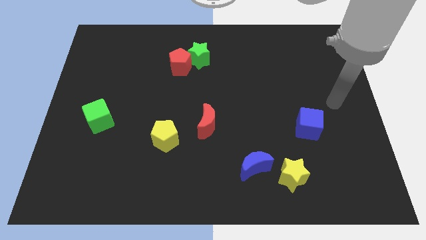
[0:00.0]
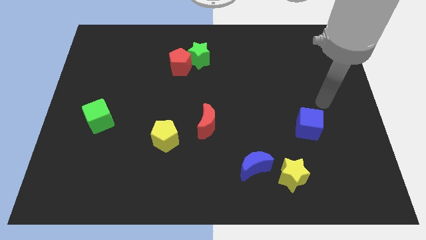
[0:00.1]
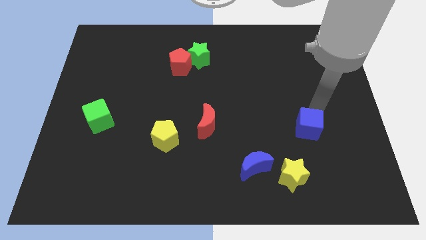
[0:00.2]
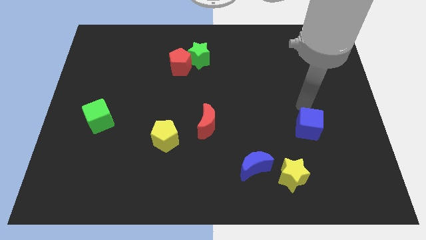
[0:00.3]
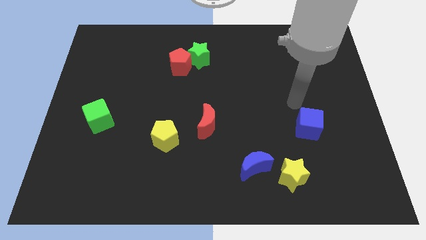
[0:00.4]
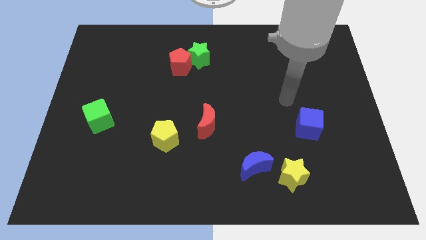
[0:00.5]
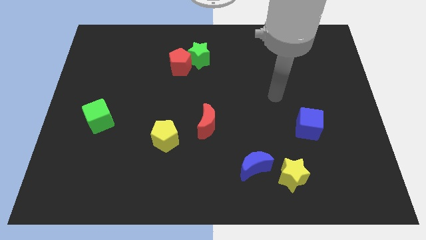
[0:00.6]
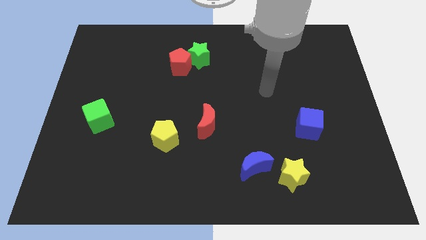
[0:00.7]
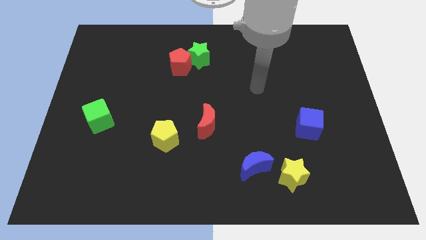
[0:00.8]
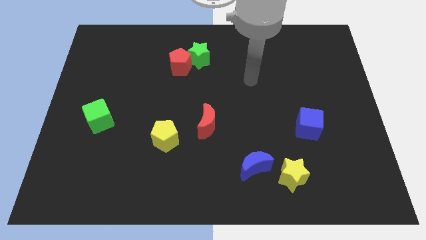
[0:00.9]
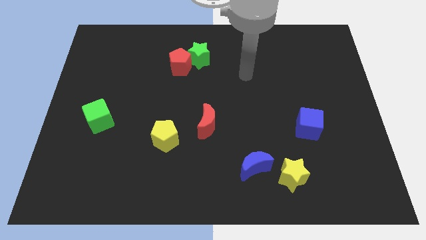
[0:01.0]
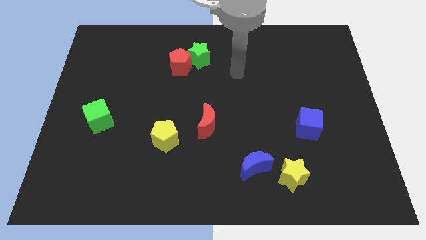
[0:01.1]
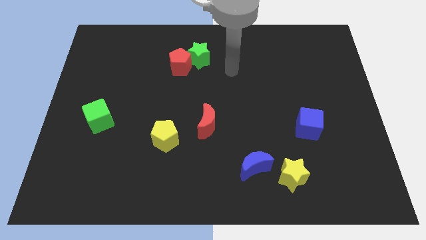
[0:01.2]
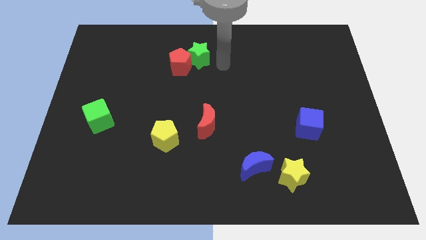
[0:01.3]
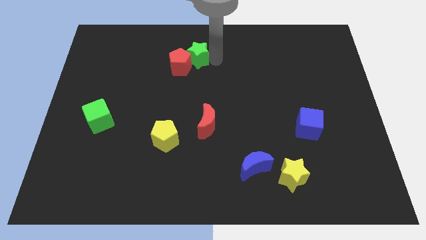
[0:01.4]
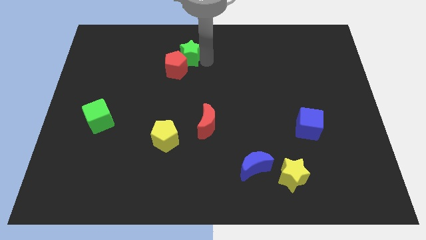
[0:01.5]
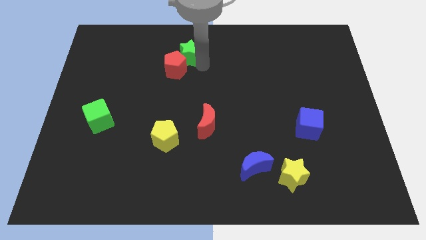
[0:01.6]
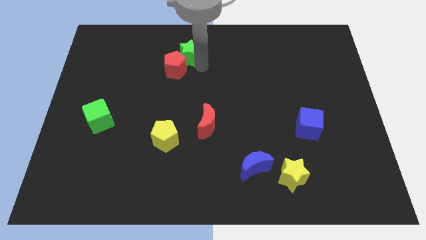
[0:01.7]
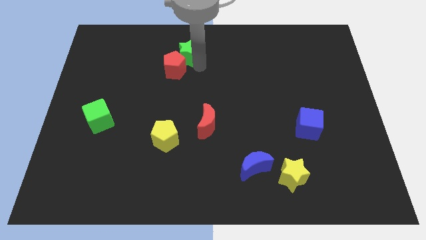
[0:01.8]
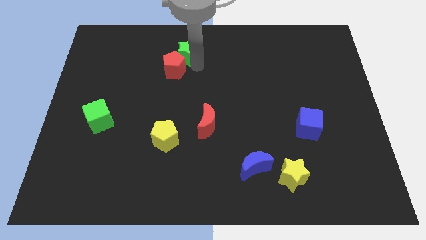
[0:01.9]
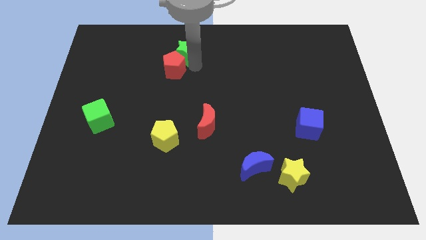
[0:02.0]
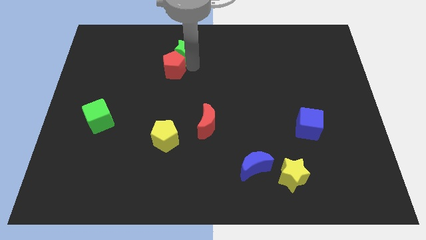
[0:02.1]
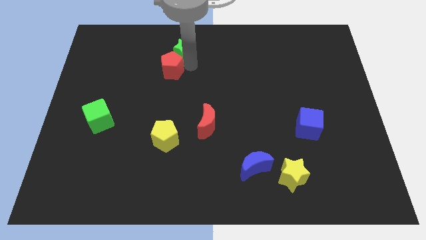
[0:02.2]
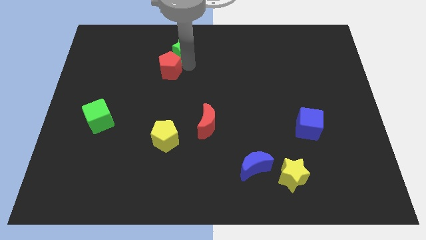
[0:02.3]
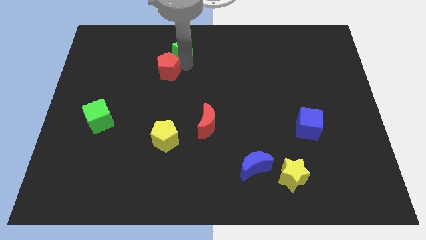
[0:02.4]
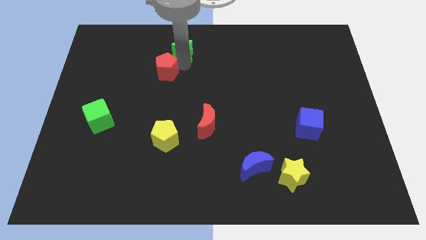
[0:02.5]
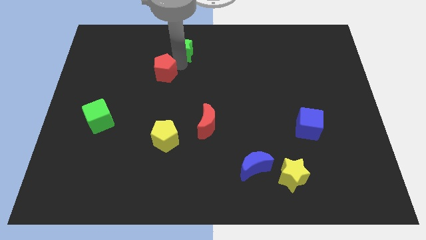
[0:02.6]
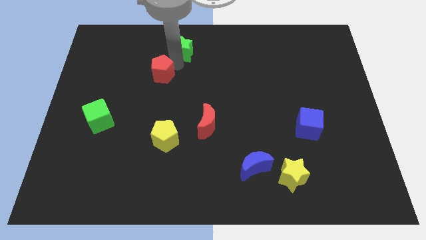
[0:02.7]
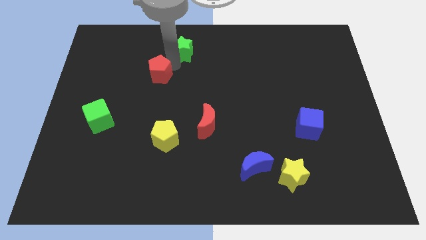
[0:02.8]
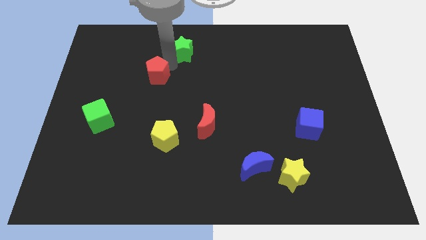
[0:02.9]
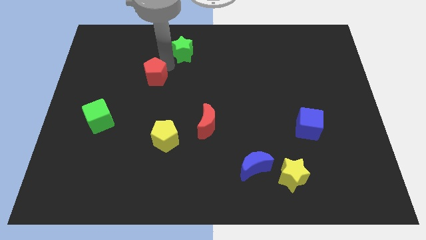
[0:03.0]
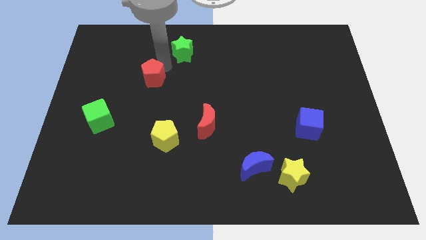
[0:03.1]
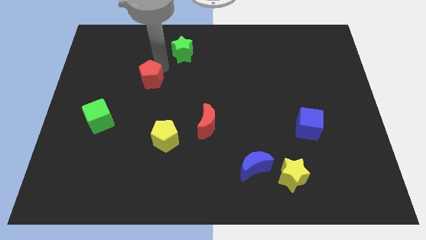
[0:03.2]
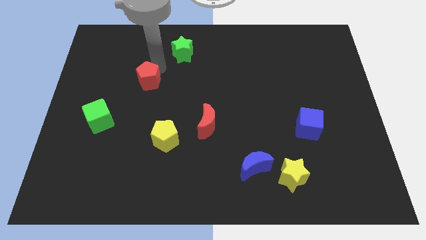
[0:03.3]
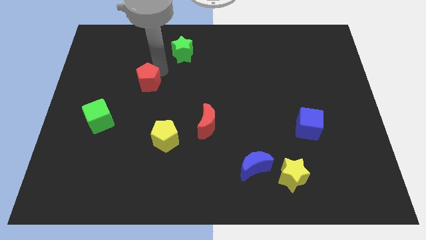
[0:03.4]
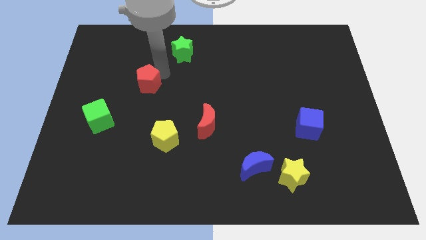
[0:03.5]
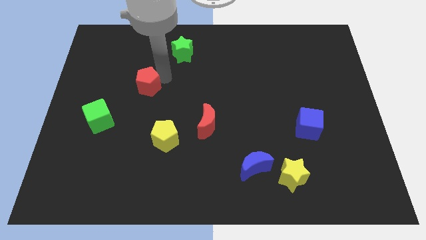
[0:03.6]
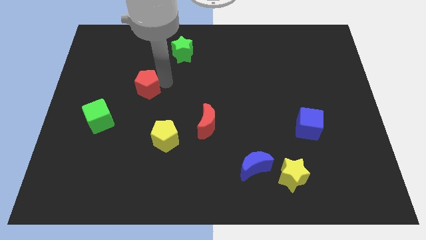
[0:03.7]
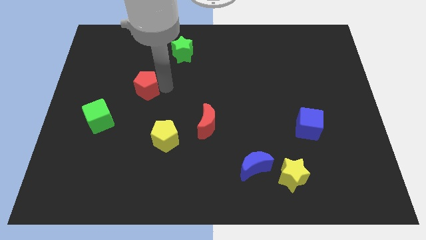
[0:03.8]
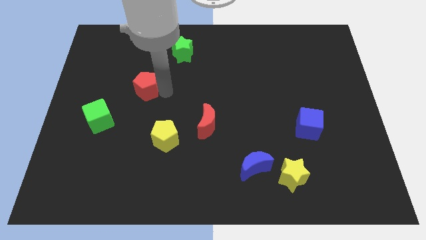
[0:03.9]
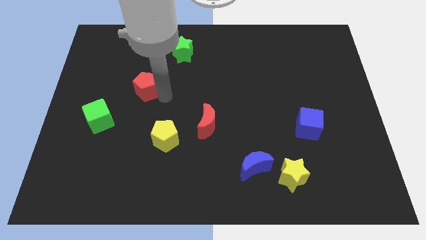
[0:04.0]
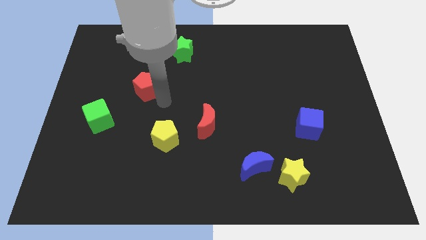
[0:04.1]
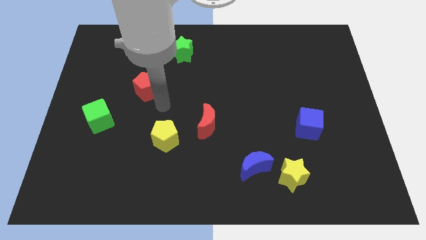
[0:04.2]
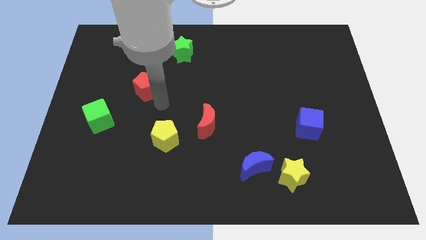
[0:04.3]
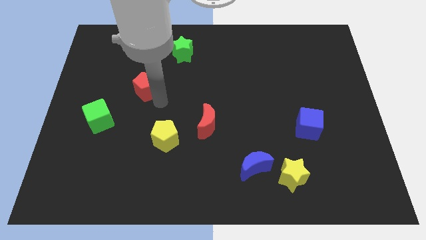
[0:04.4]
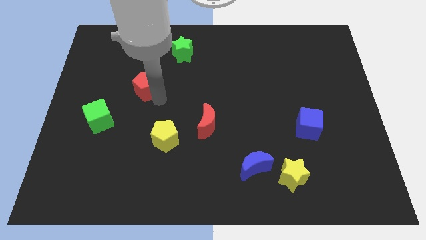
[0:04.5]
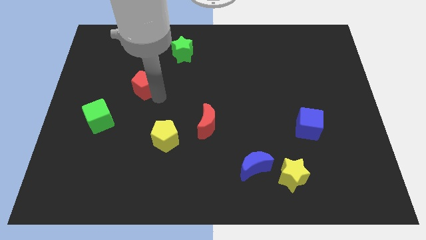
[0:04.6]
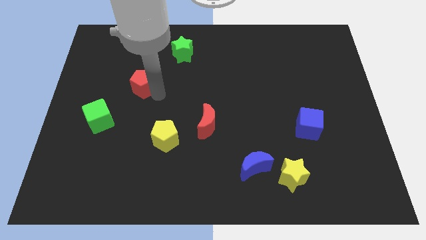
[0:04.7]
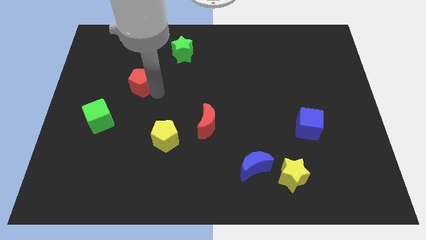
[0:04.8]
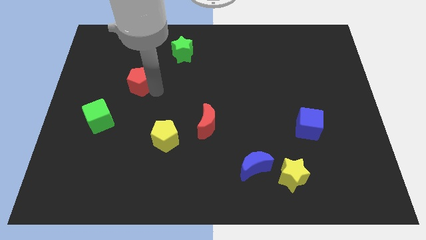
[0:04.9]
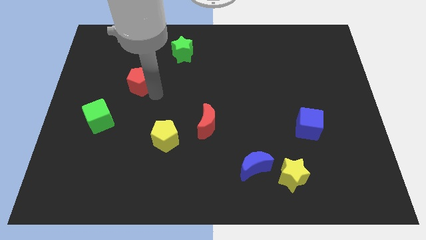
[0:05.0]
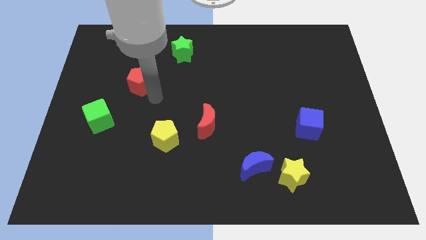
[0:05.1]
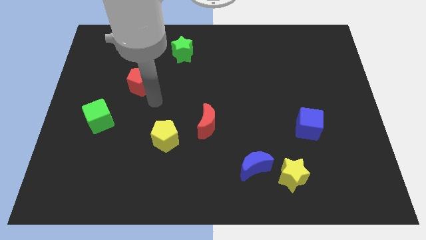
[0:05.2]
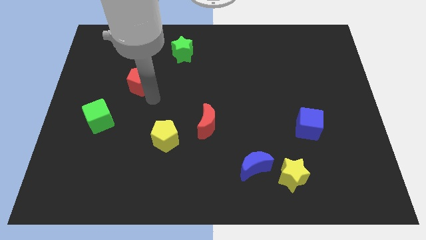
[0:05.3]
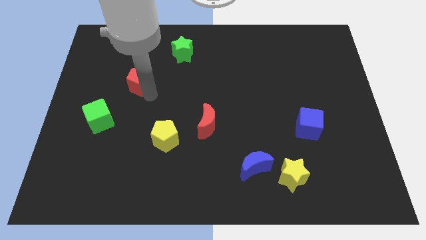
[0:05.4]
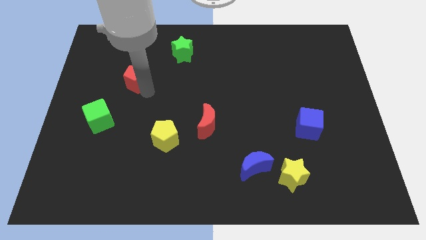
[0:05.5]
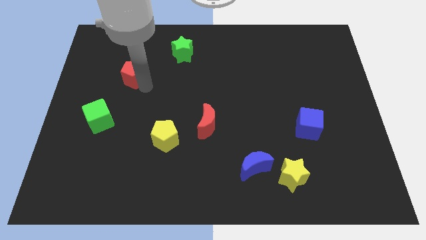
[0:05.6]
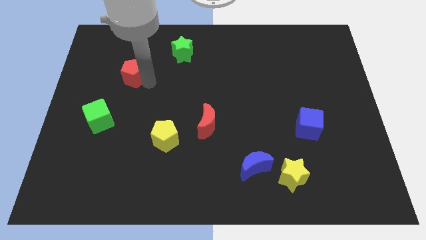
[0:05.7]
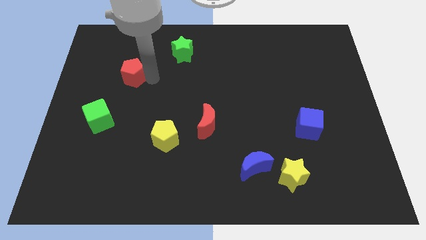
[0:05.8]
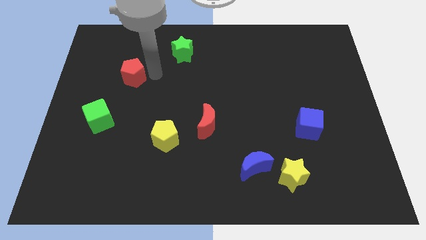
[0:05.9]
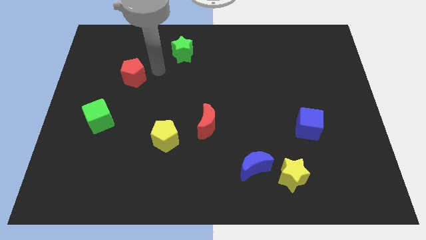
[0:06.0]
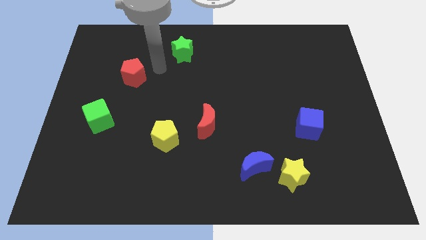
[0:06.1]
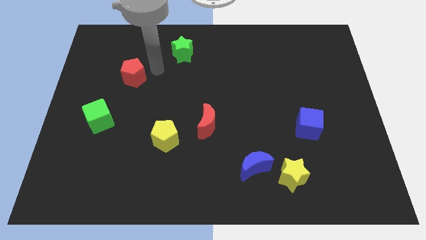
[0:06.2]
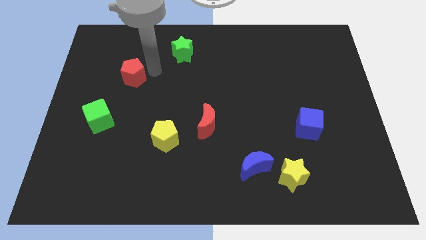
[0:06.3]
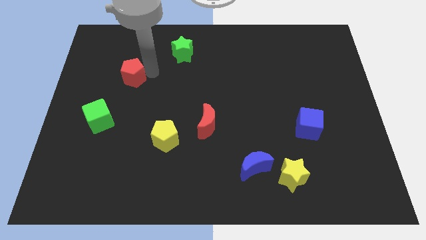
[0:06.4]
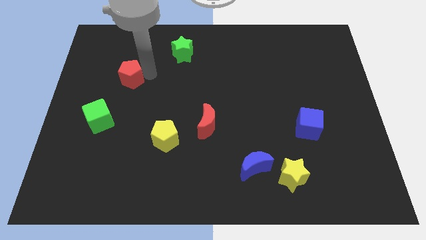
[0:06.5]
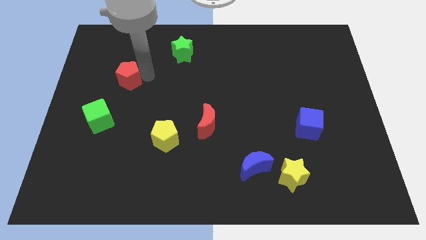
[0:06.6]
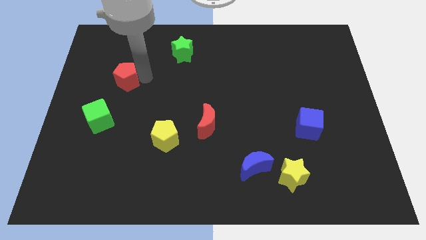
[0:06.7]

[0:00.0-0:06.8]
slide the red pentagon to the top side of the green cube
